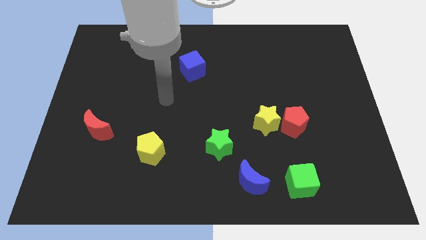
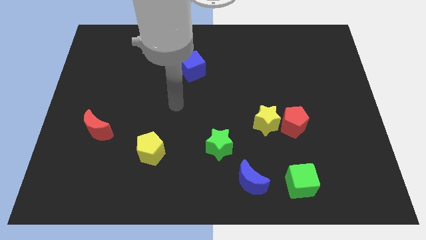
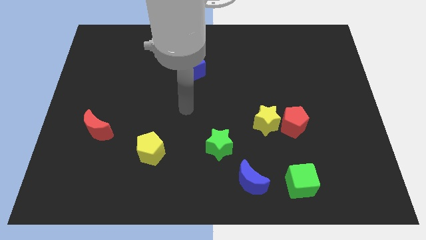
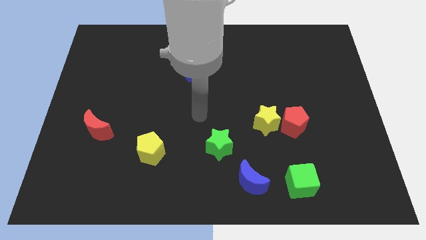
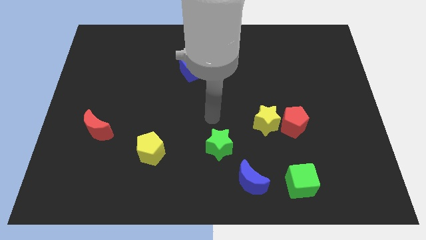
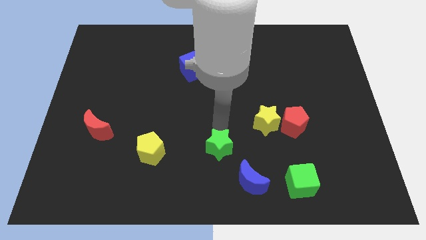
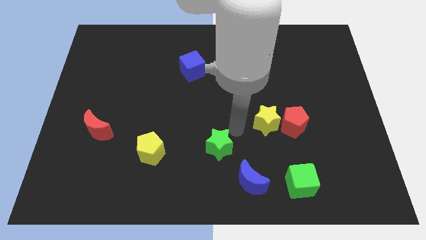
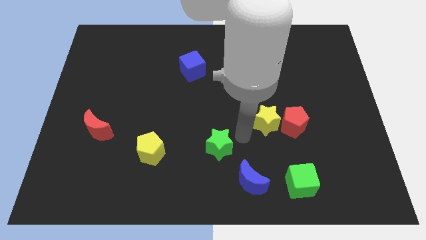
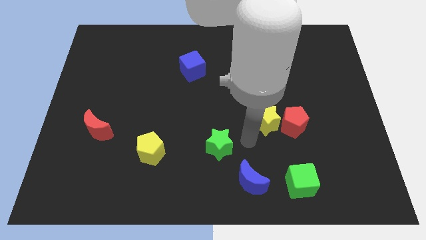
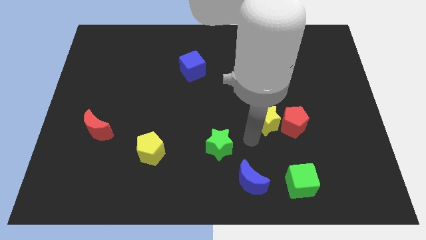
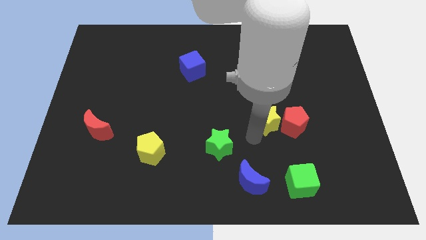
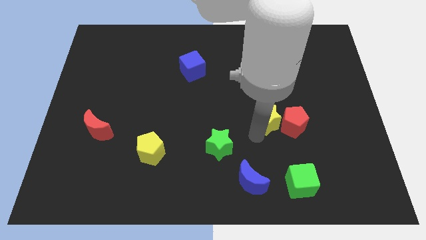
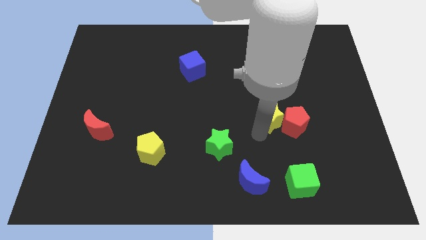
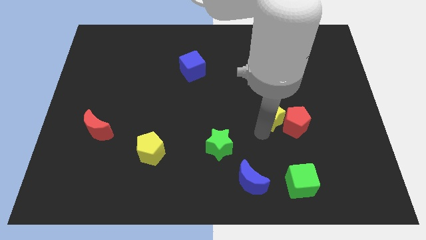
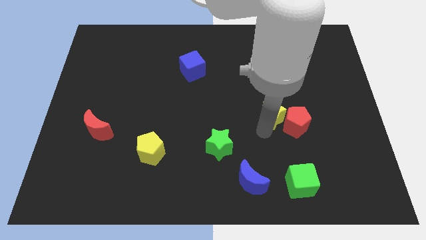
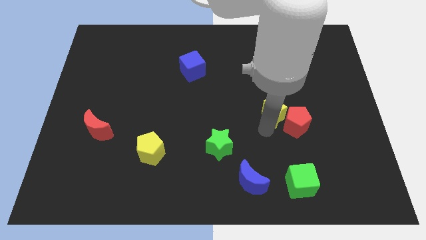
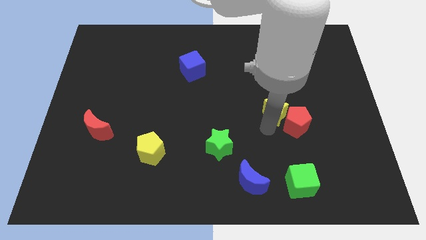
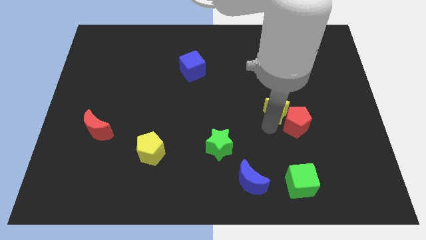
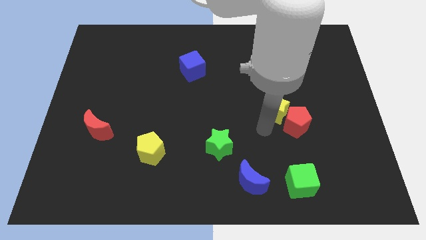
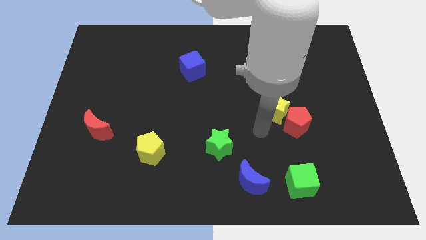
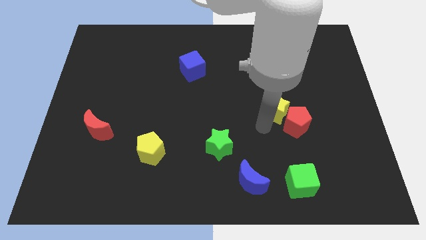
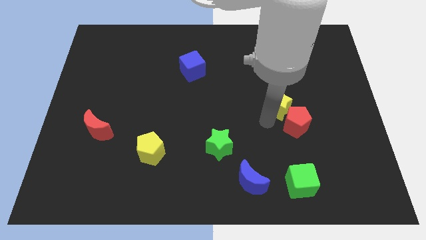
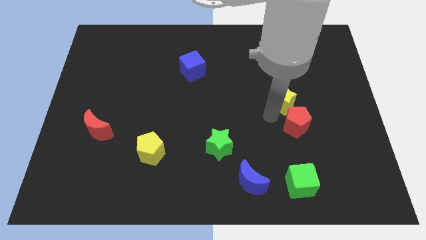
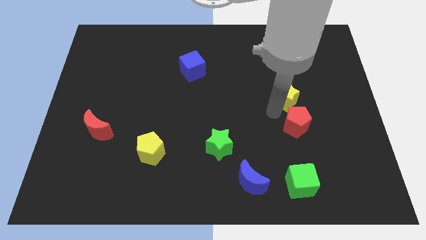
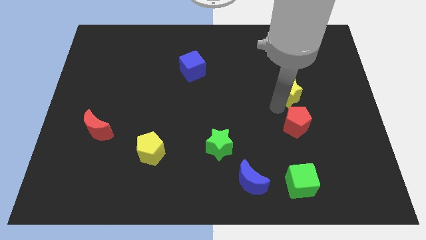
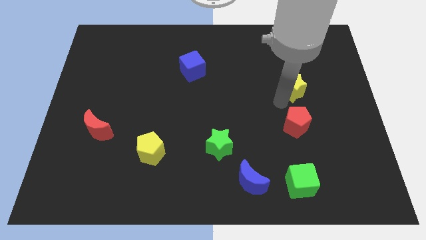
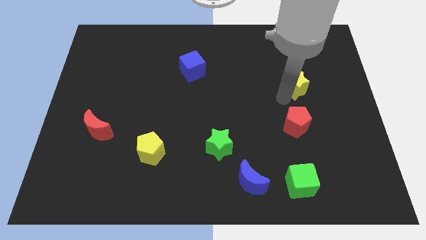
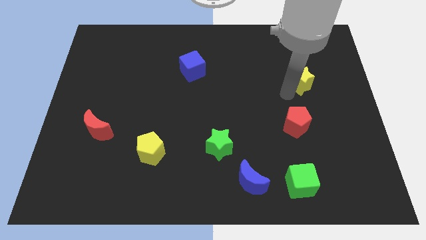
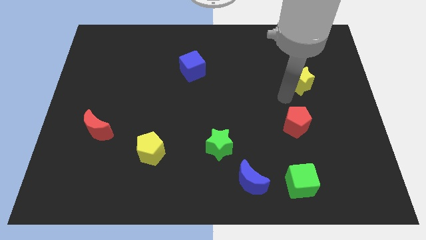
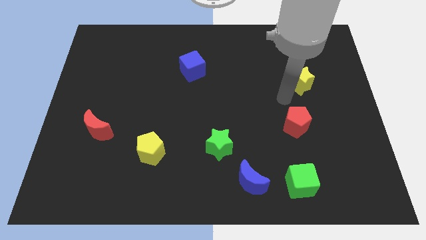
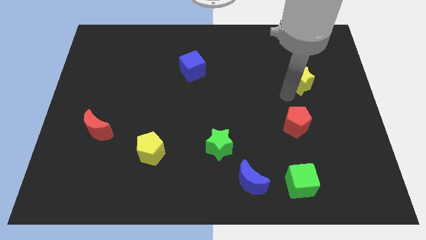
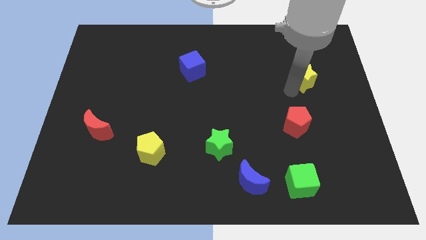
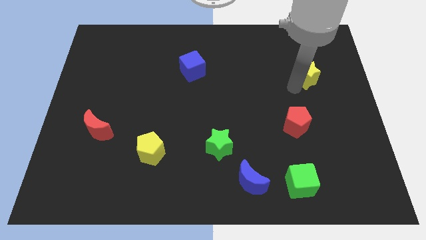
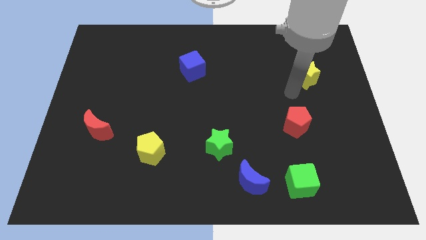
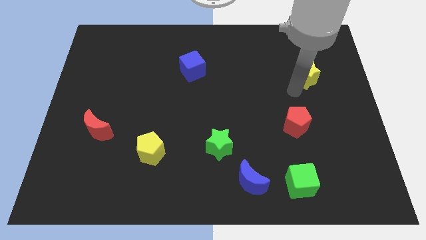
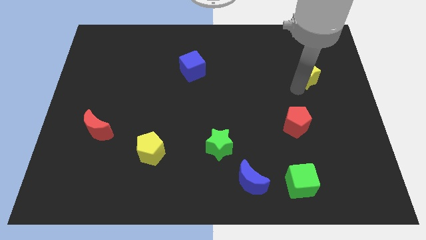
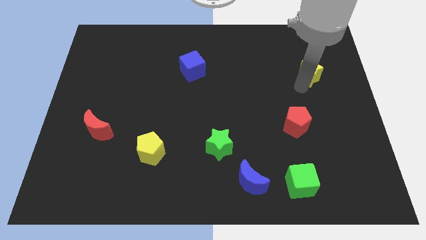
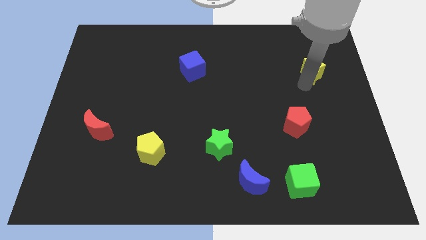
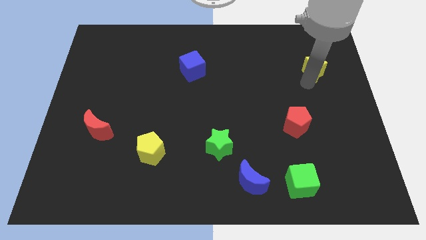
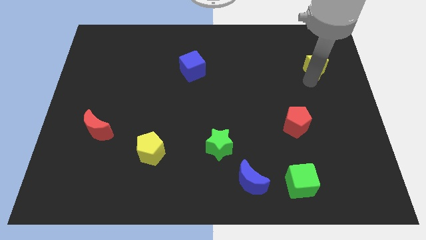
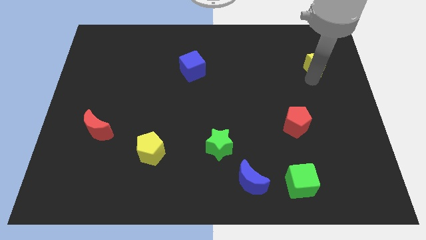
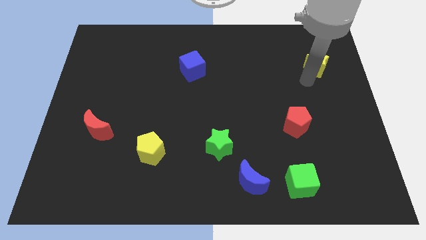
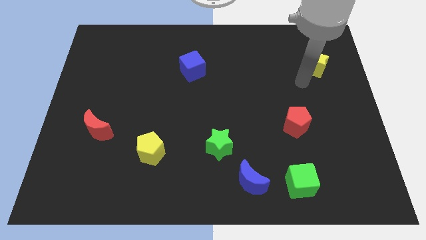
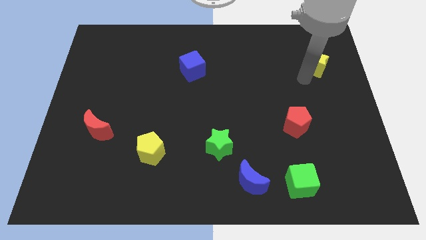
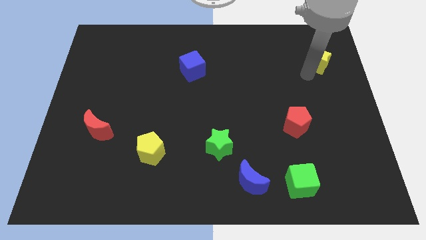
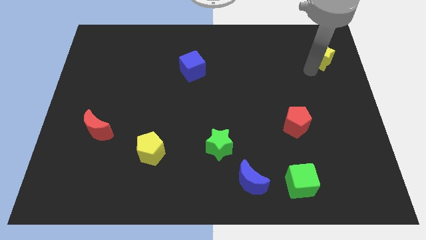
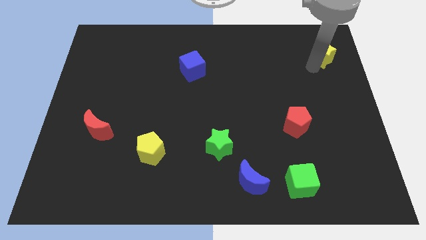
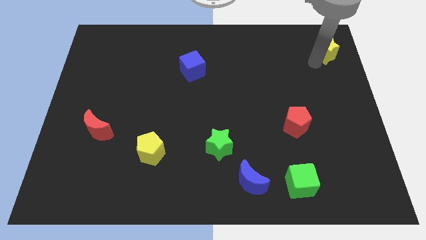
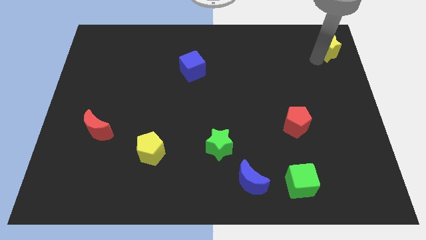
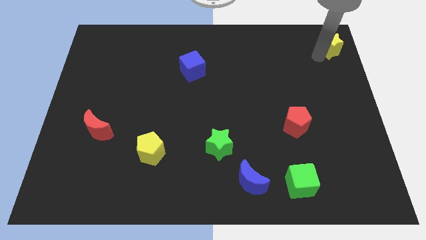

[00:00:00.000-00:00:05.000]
slide the yellow star to the upper right corner

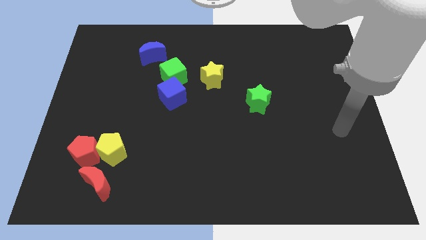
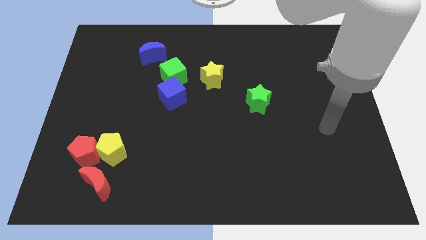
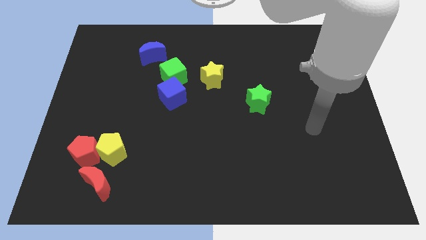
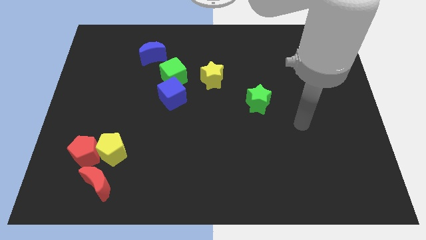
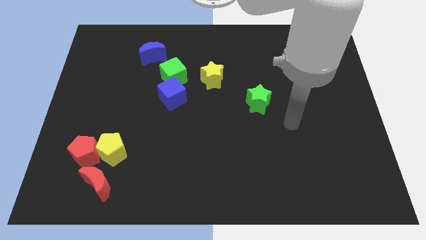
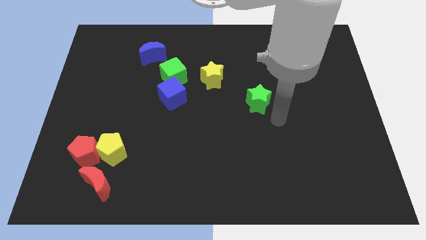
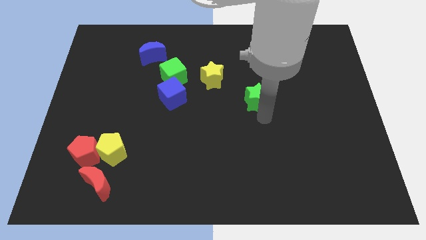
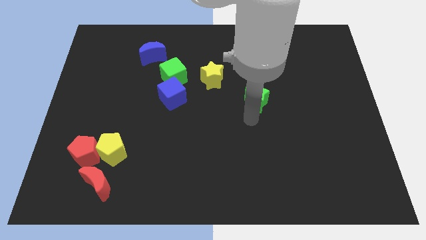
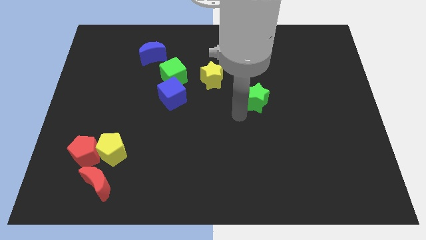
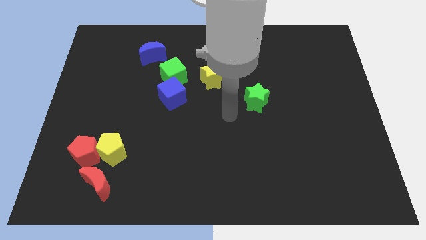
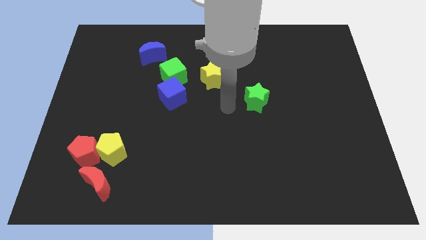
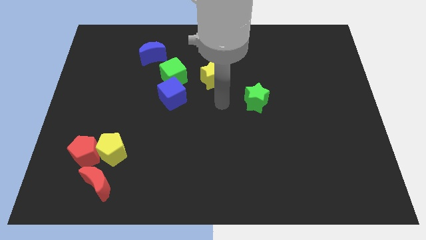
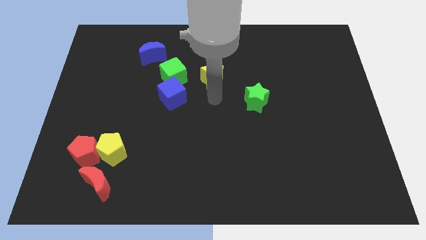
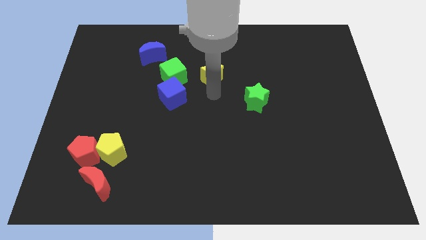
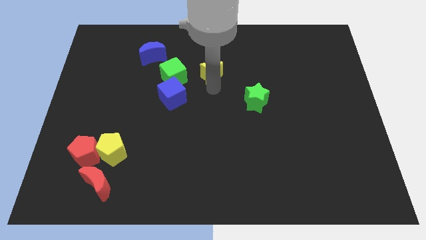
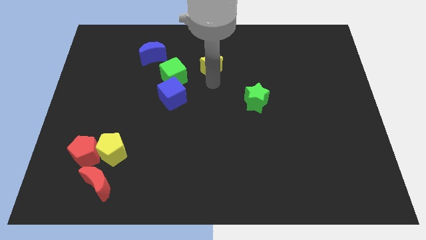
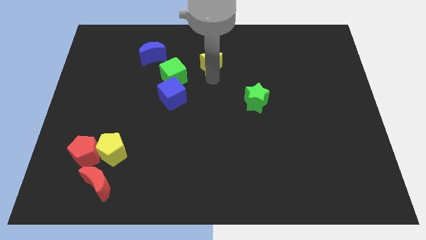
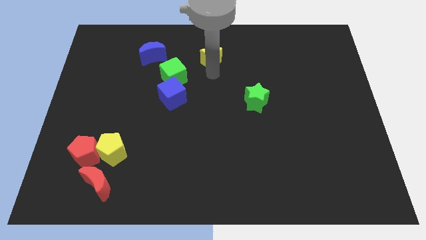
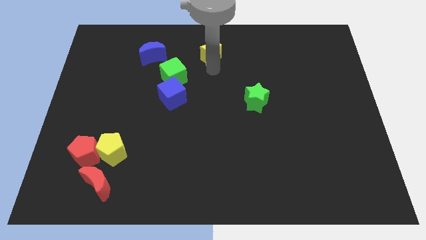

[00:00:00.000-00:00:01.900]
push the yellow star to the top side
